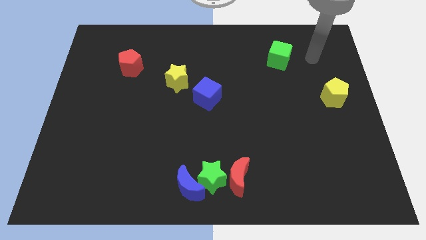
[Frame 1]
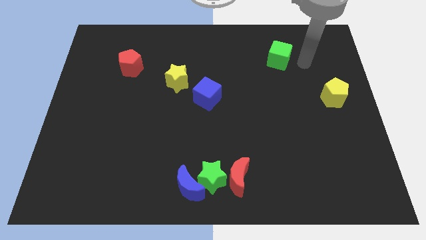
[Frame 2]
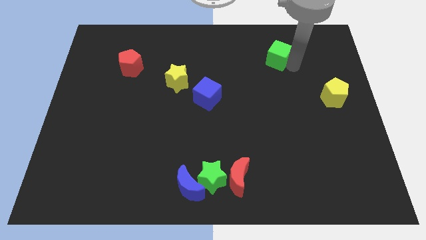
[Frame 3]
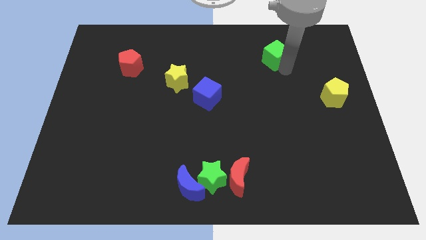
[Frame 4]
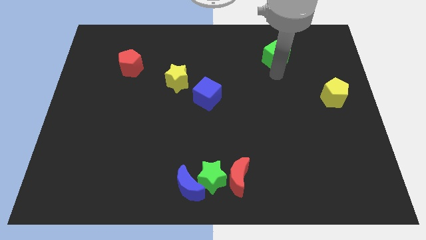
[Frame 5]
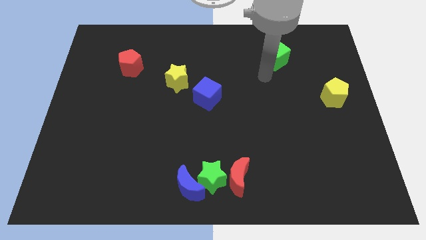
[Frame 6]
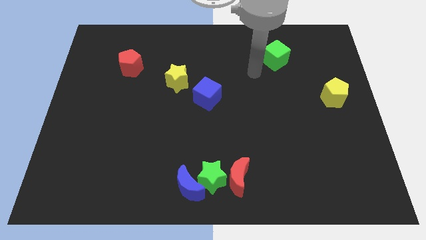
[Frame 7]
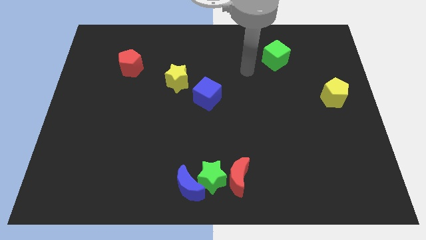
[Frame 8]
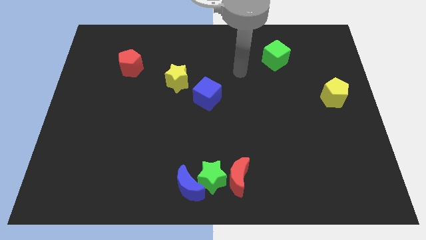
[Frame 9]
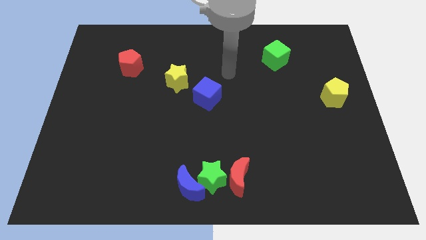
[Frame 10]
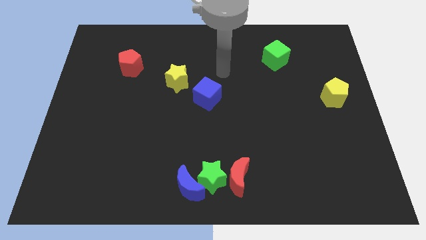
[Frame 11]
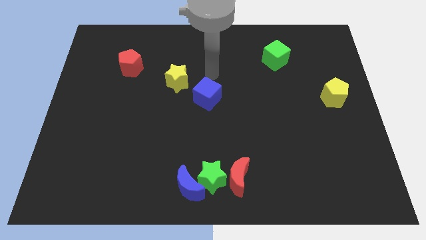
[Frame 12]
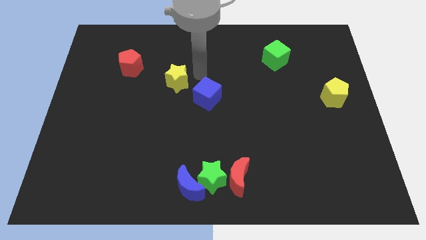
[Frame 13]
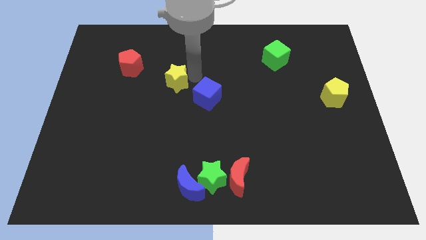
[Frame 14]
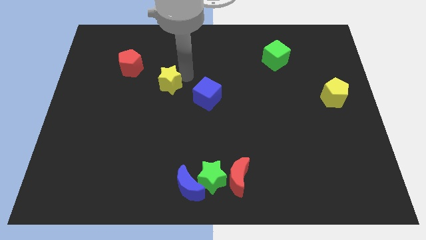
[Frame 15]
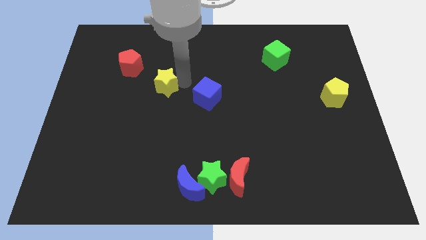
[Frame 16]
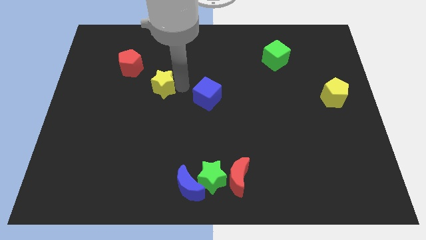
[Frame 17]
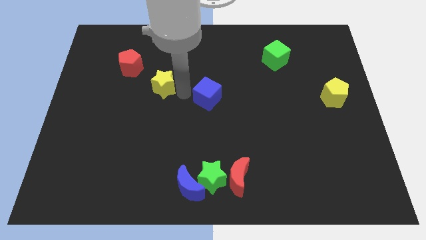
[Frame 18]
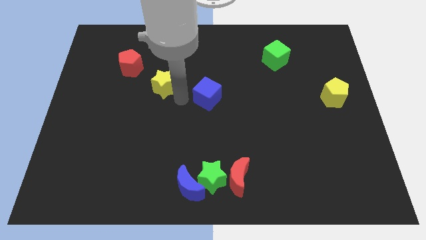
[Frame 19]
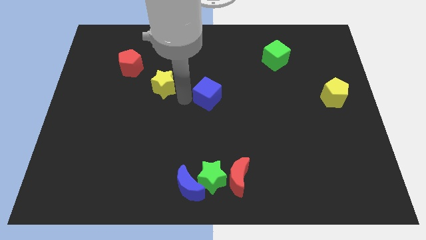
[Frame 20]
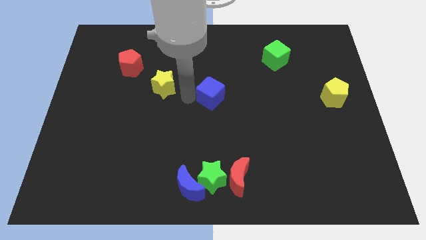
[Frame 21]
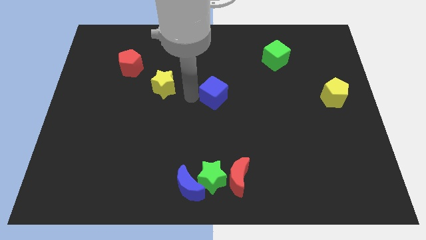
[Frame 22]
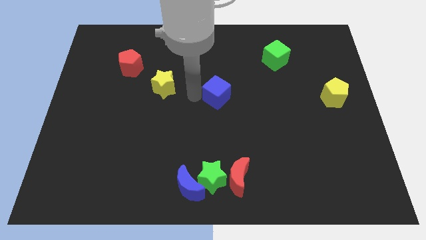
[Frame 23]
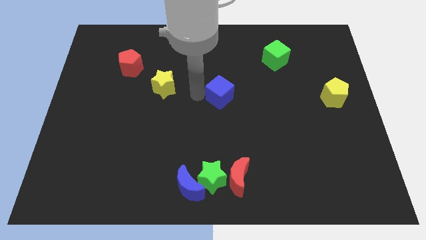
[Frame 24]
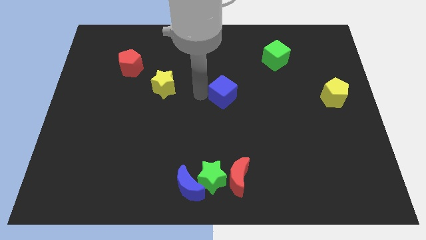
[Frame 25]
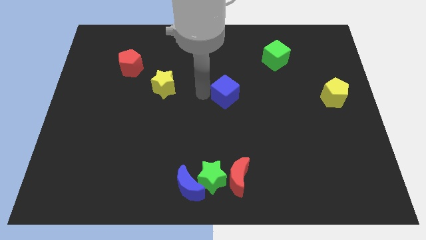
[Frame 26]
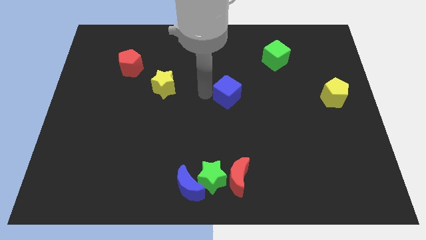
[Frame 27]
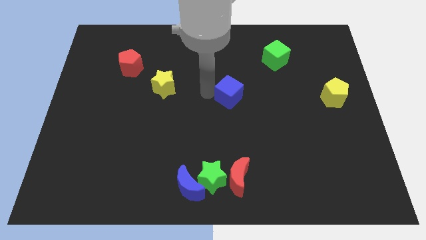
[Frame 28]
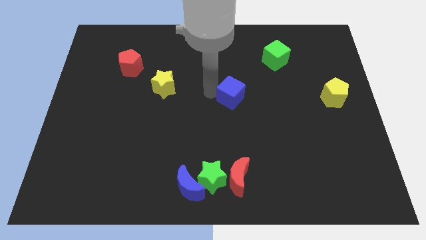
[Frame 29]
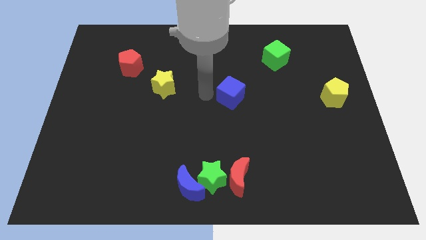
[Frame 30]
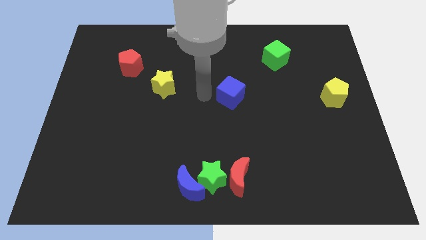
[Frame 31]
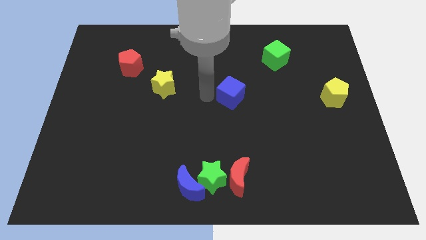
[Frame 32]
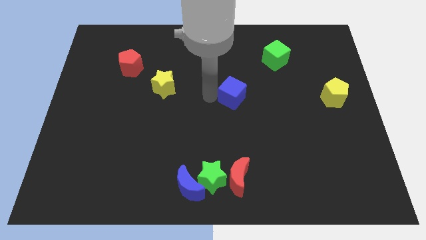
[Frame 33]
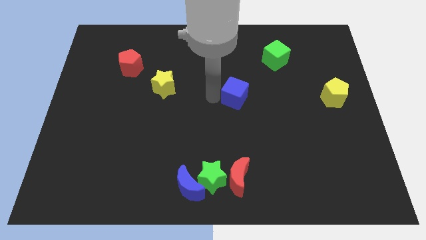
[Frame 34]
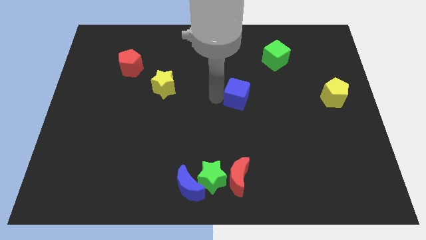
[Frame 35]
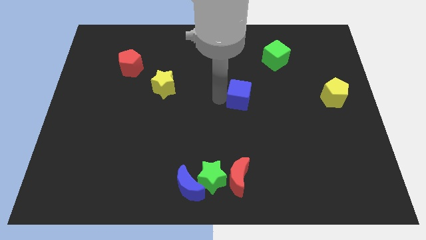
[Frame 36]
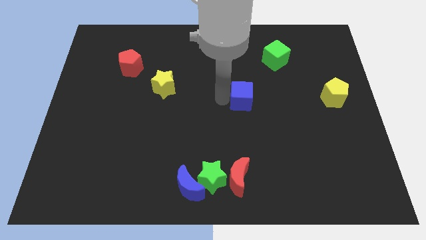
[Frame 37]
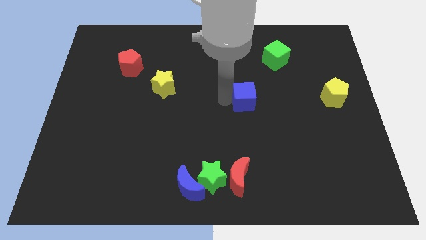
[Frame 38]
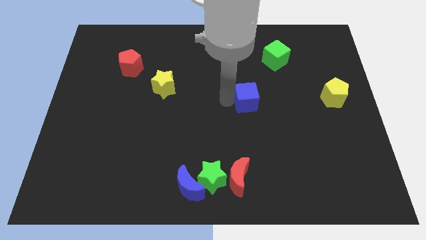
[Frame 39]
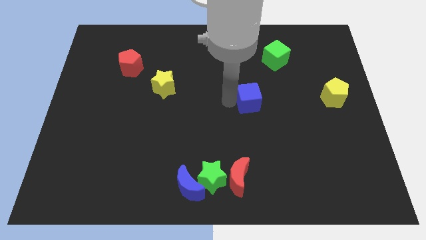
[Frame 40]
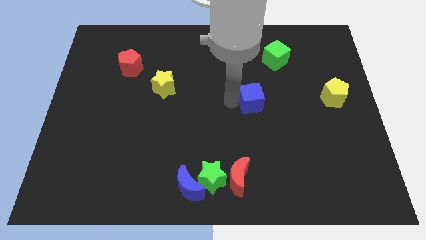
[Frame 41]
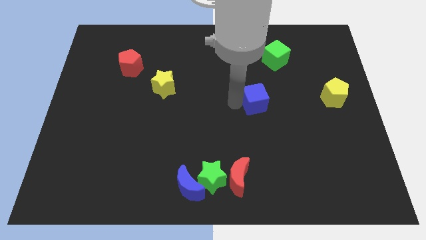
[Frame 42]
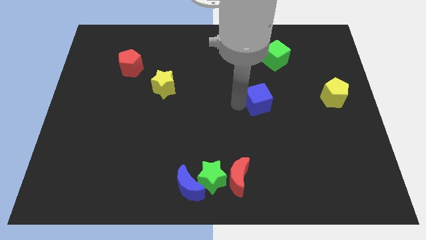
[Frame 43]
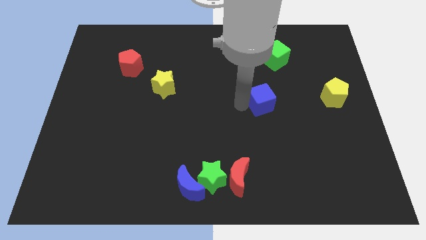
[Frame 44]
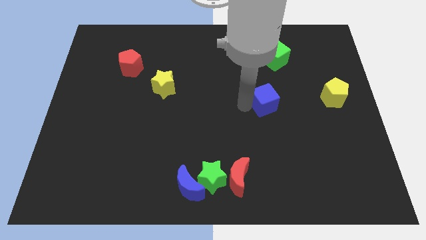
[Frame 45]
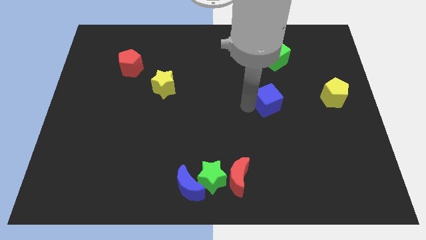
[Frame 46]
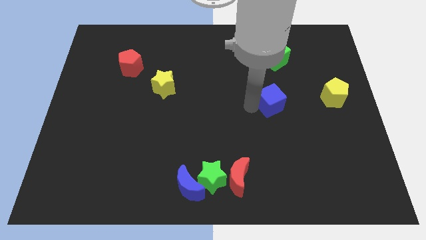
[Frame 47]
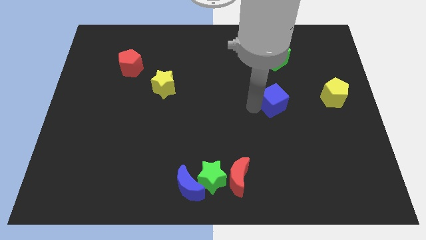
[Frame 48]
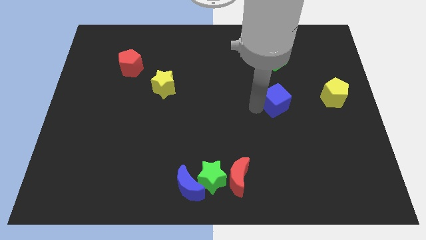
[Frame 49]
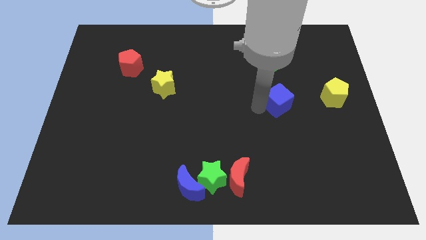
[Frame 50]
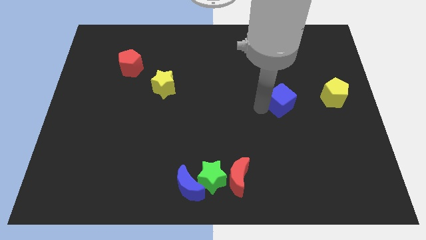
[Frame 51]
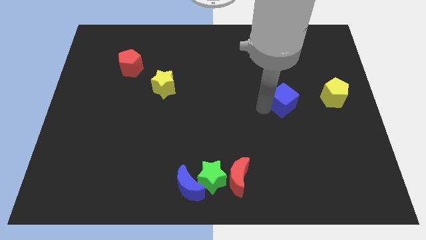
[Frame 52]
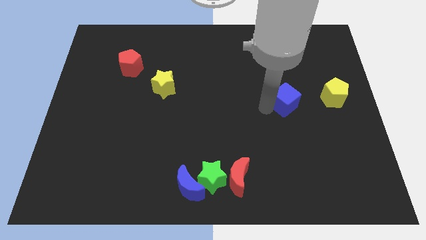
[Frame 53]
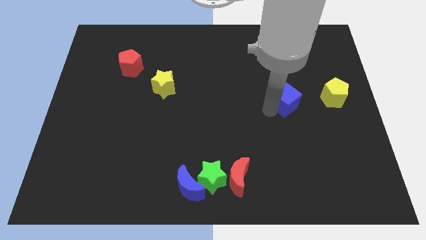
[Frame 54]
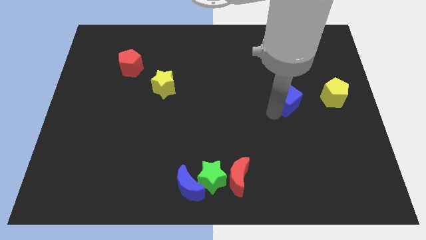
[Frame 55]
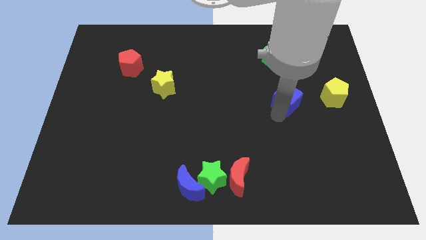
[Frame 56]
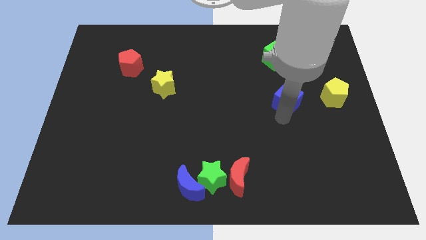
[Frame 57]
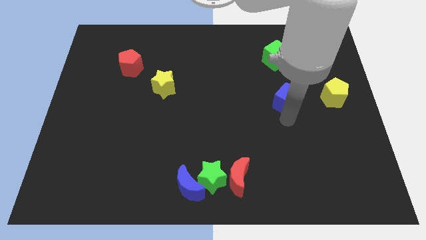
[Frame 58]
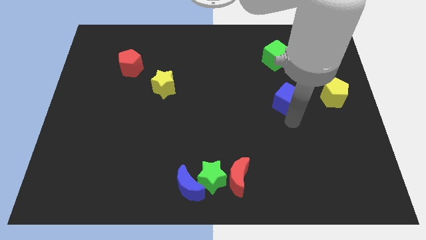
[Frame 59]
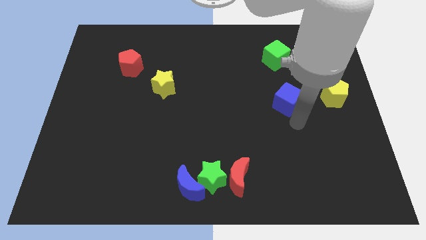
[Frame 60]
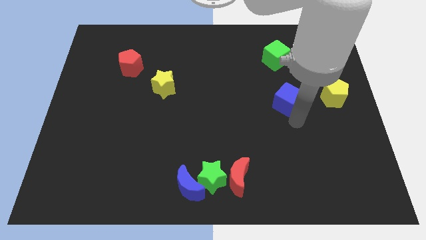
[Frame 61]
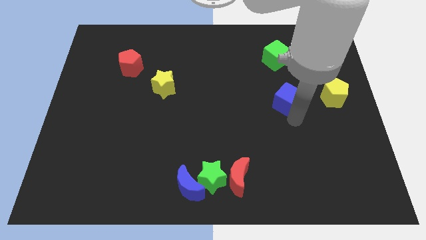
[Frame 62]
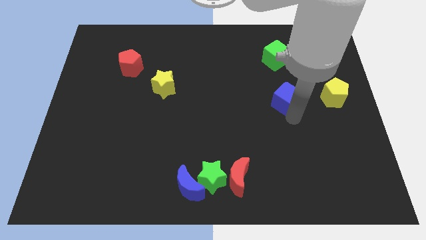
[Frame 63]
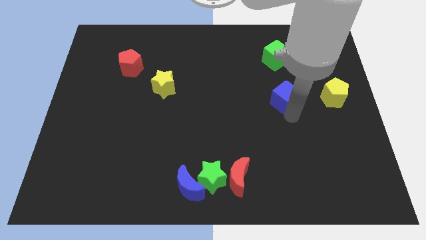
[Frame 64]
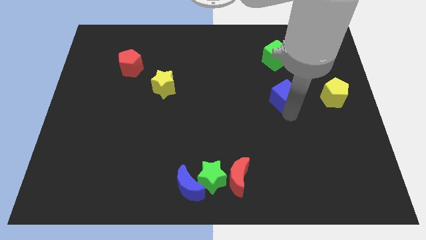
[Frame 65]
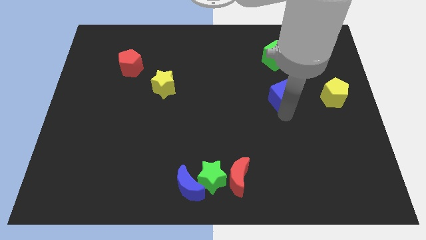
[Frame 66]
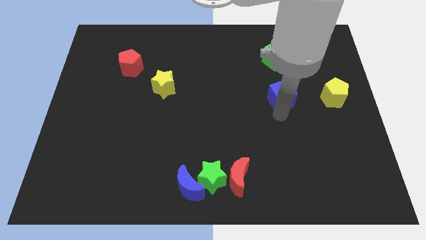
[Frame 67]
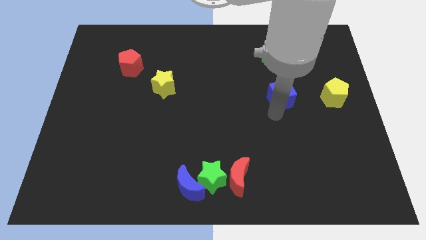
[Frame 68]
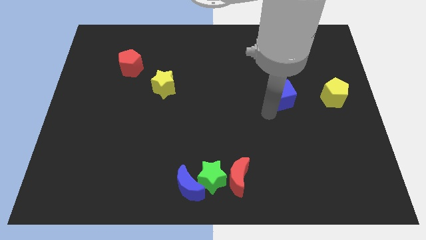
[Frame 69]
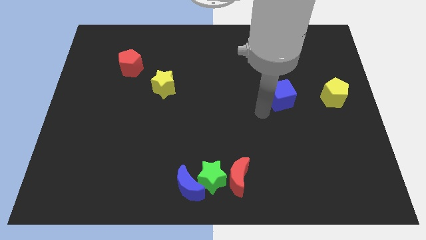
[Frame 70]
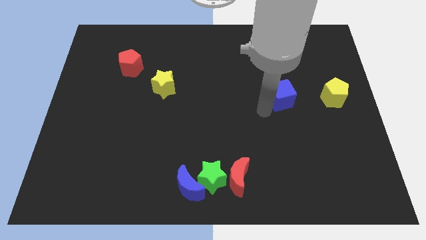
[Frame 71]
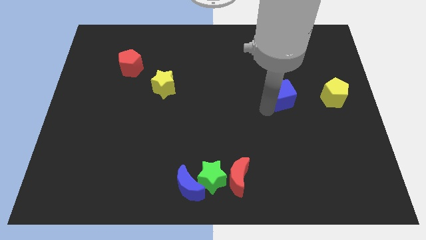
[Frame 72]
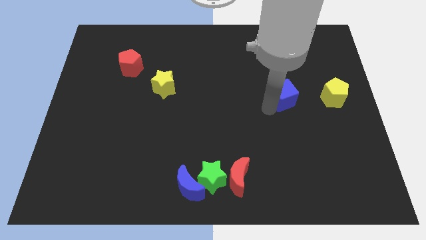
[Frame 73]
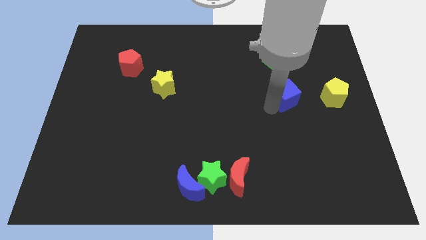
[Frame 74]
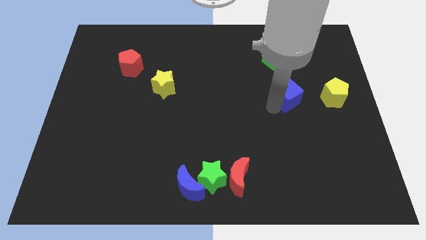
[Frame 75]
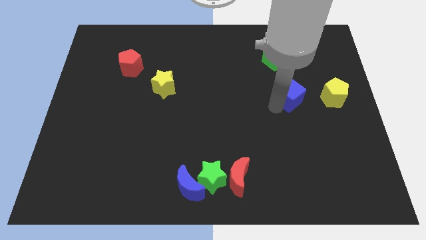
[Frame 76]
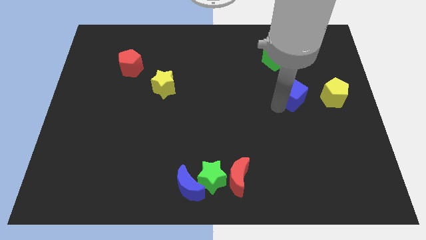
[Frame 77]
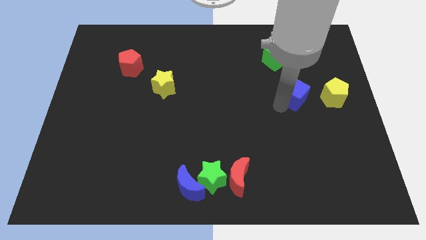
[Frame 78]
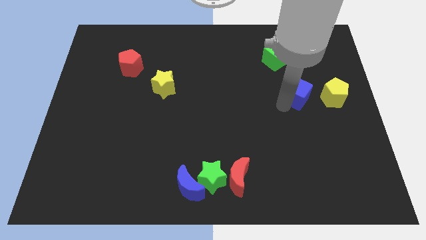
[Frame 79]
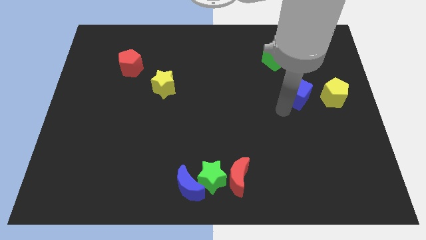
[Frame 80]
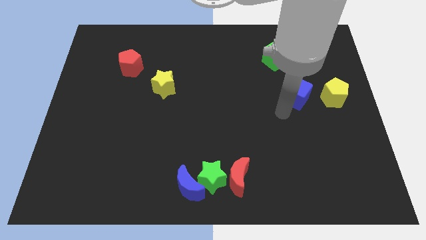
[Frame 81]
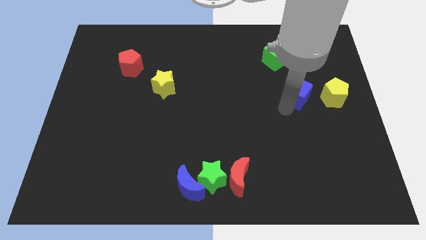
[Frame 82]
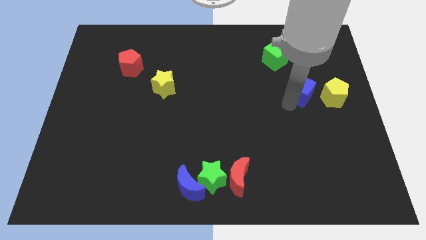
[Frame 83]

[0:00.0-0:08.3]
slide the blue cube to the top left side of the yellow pentagon
